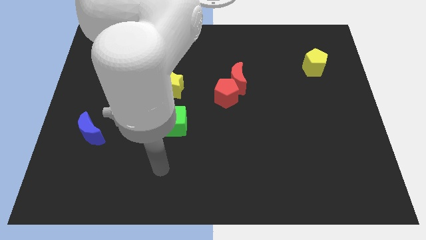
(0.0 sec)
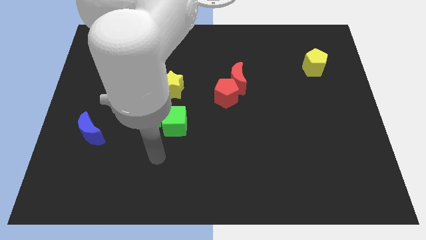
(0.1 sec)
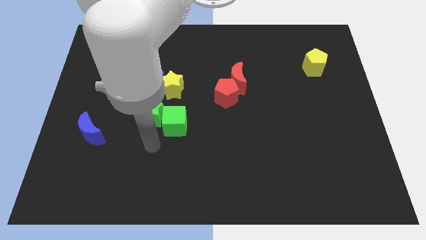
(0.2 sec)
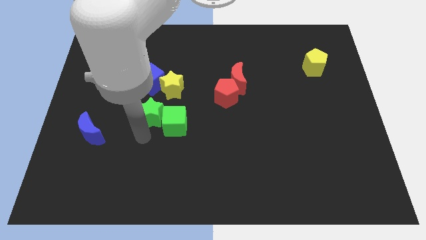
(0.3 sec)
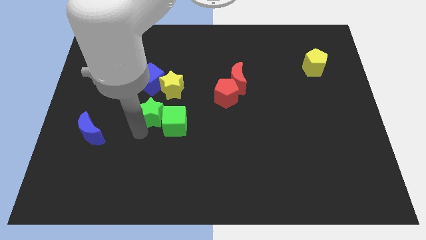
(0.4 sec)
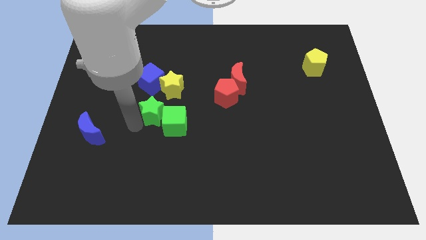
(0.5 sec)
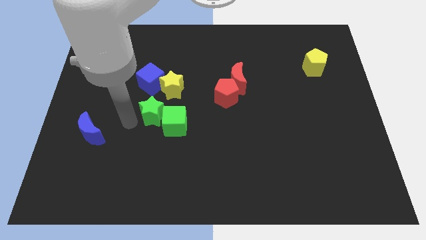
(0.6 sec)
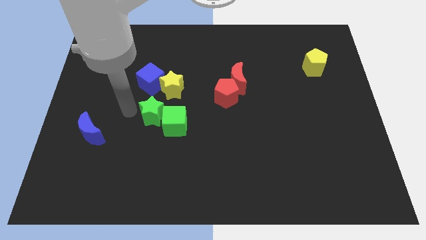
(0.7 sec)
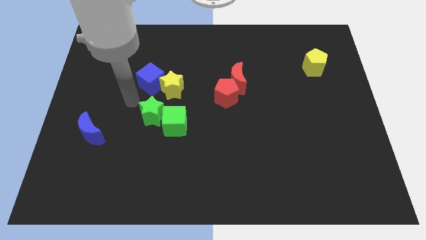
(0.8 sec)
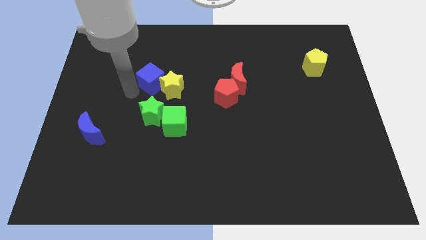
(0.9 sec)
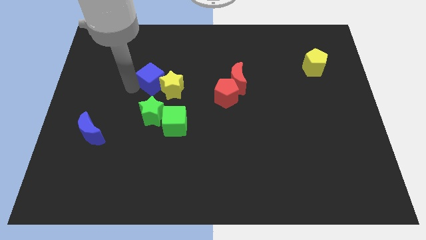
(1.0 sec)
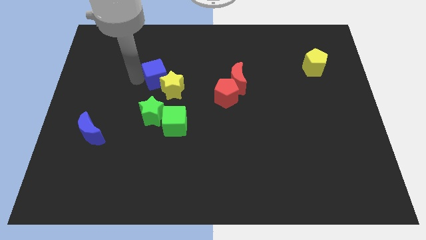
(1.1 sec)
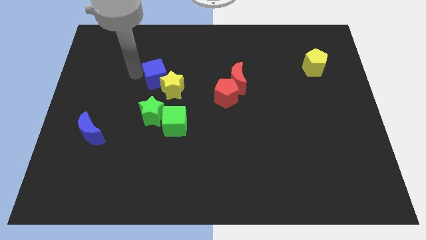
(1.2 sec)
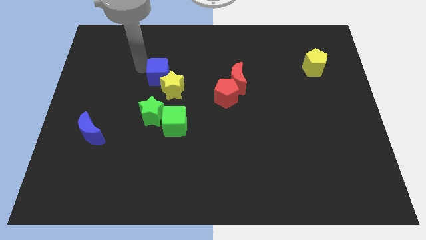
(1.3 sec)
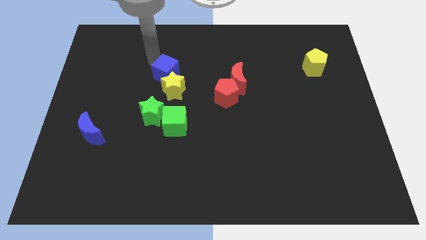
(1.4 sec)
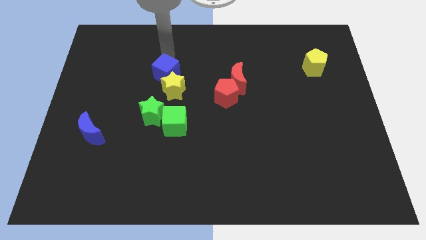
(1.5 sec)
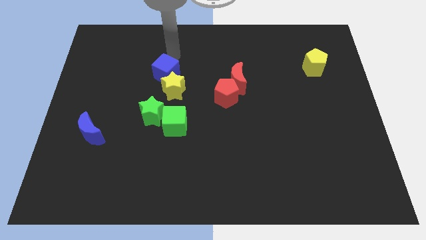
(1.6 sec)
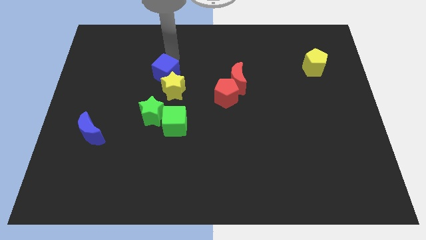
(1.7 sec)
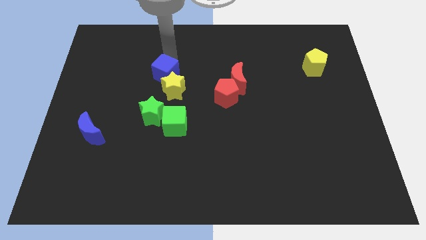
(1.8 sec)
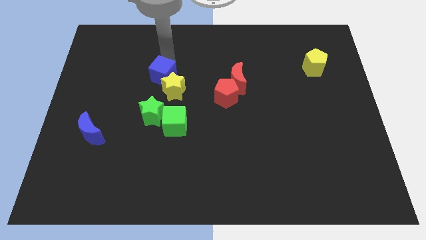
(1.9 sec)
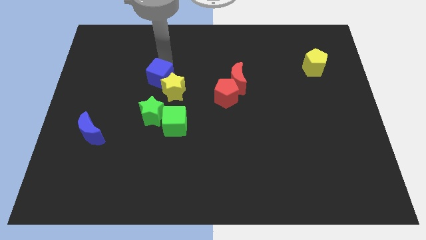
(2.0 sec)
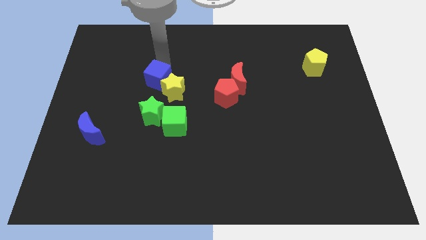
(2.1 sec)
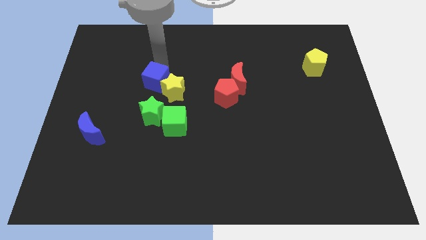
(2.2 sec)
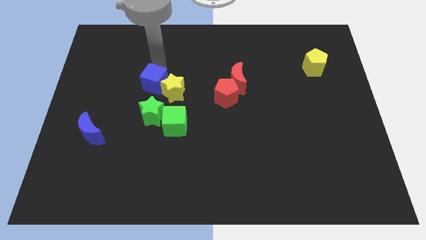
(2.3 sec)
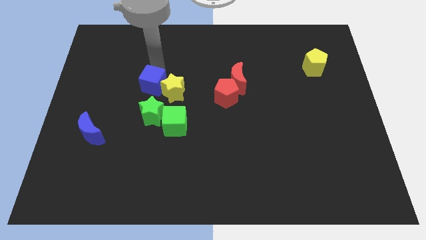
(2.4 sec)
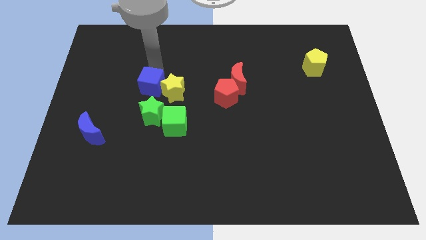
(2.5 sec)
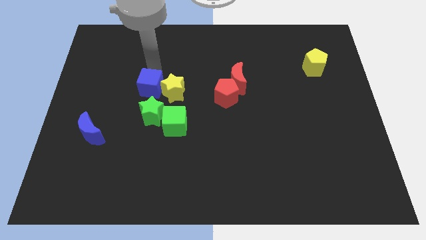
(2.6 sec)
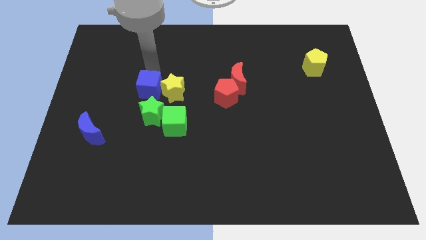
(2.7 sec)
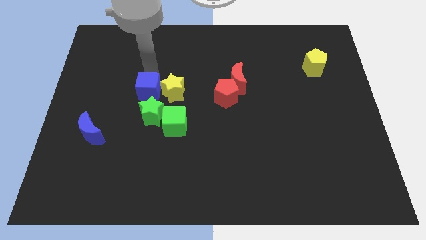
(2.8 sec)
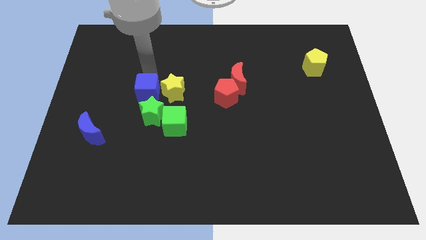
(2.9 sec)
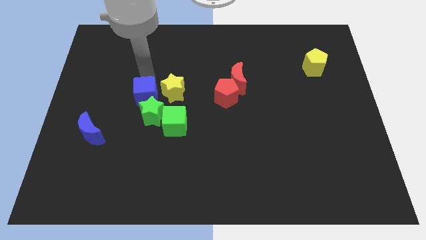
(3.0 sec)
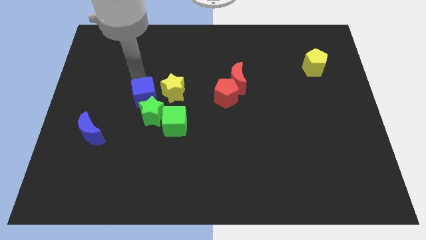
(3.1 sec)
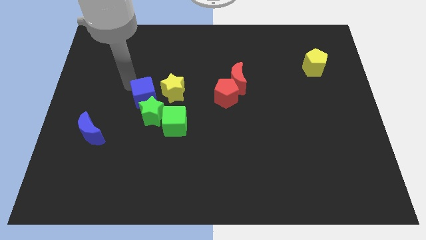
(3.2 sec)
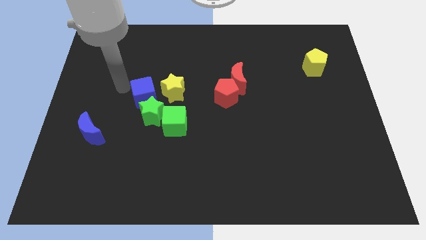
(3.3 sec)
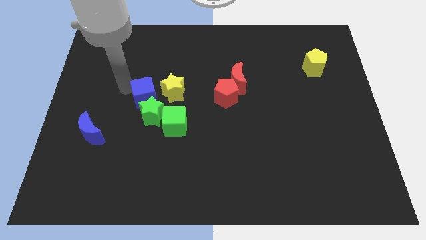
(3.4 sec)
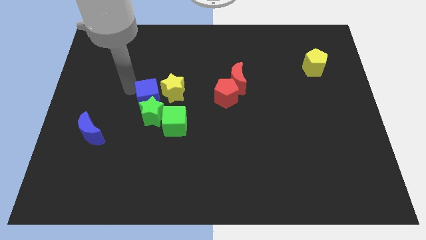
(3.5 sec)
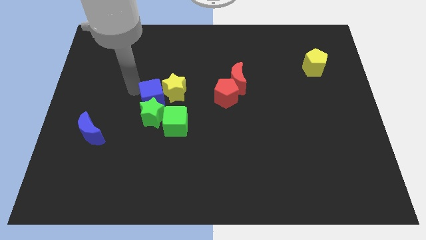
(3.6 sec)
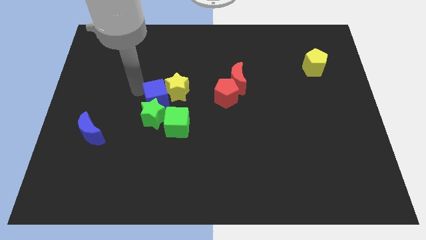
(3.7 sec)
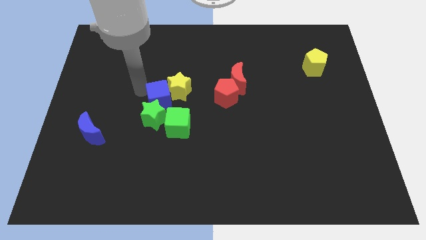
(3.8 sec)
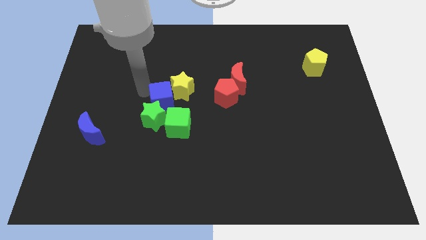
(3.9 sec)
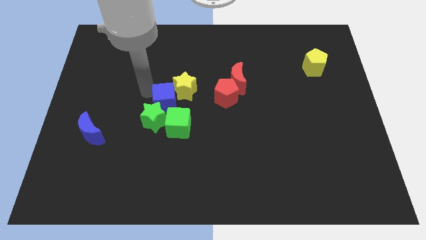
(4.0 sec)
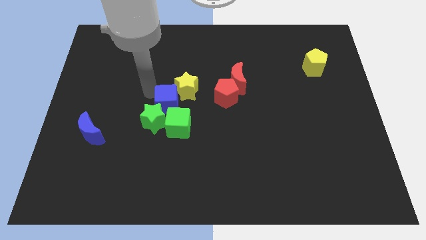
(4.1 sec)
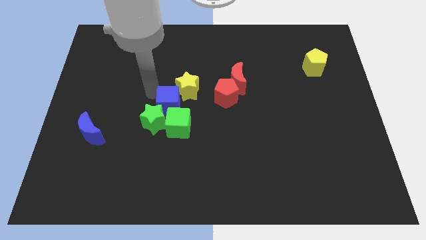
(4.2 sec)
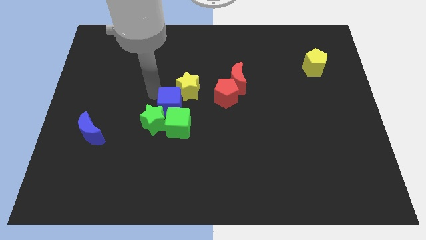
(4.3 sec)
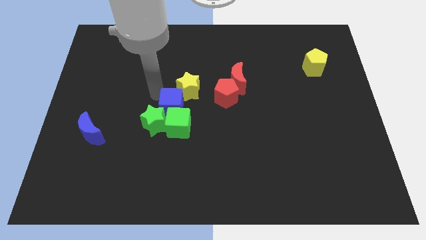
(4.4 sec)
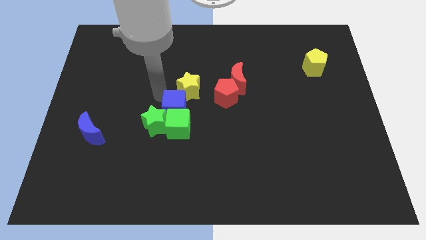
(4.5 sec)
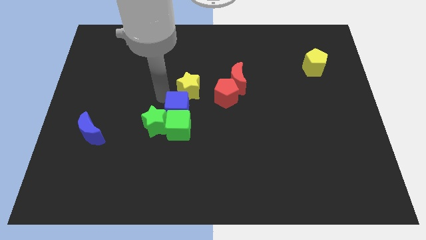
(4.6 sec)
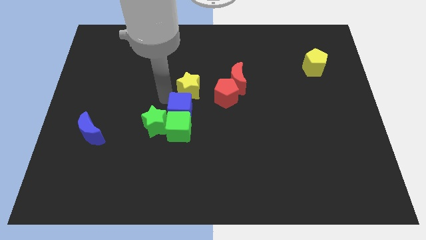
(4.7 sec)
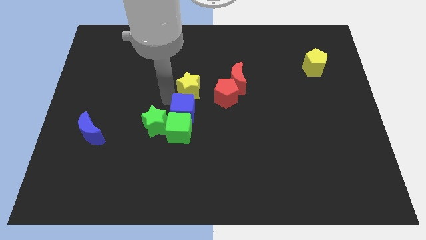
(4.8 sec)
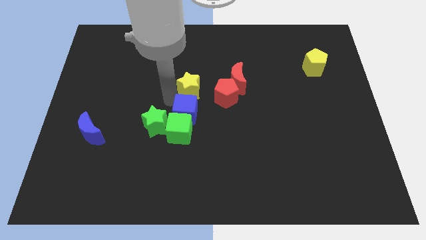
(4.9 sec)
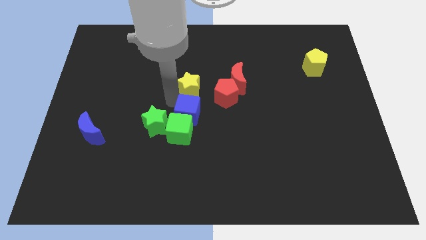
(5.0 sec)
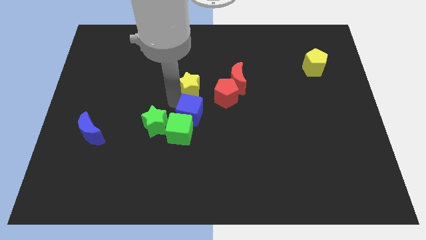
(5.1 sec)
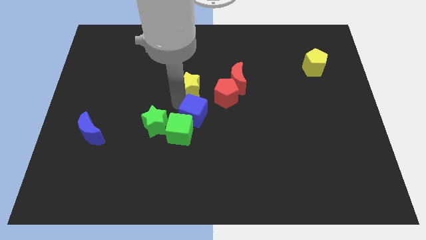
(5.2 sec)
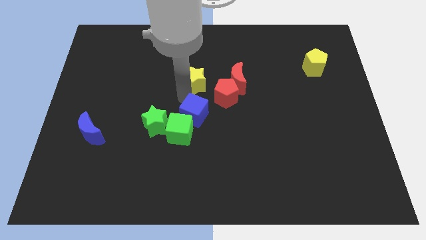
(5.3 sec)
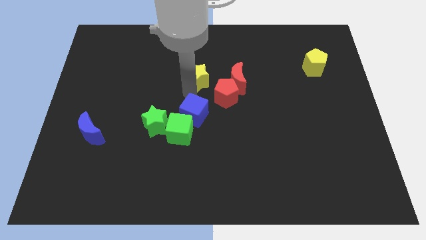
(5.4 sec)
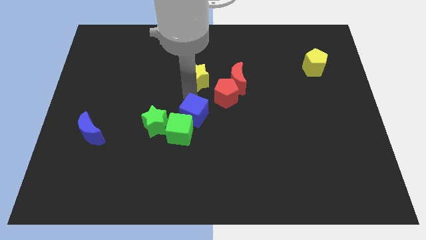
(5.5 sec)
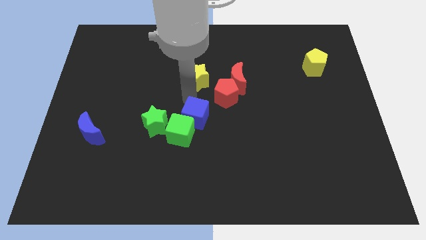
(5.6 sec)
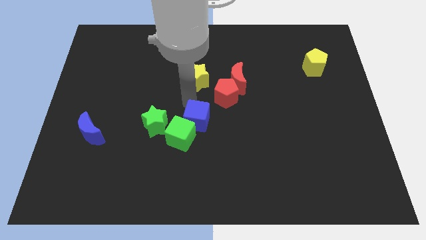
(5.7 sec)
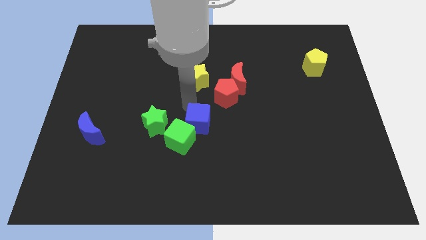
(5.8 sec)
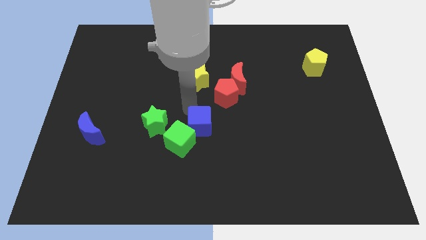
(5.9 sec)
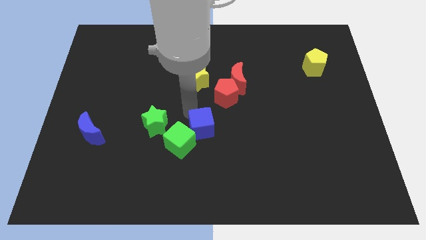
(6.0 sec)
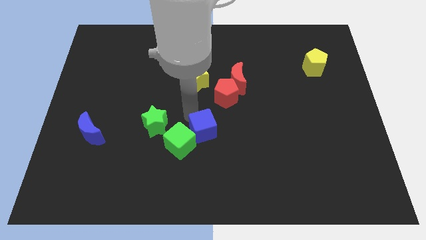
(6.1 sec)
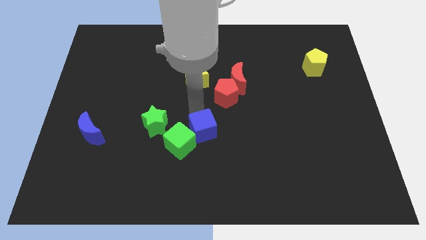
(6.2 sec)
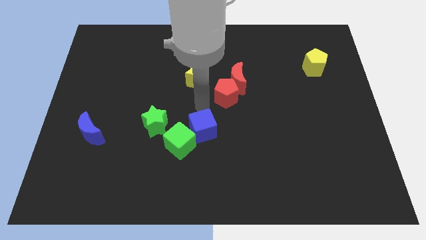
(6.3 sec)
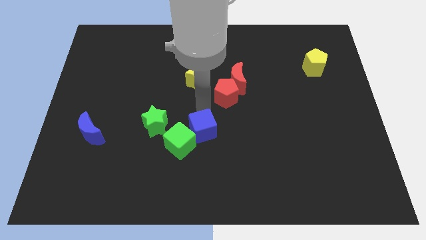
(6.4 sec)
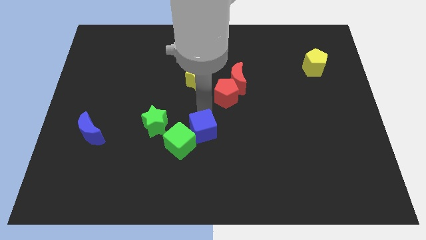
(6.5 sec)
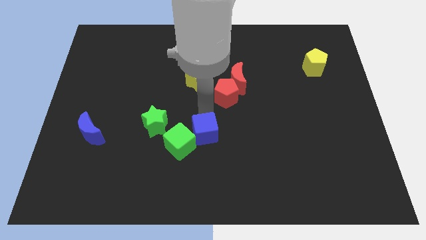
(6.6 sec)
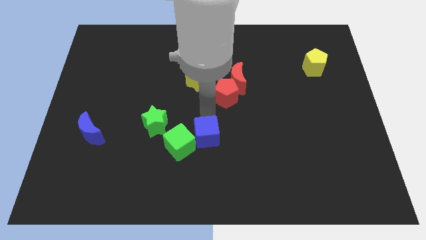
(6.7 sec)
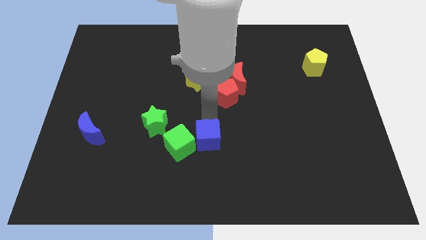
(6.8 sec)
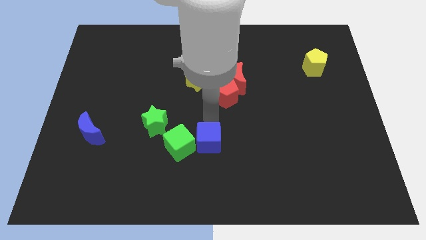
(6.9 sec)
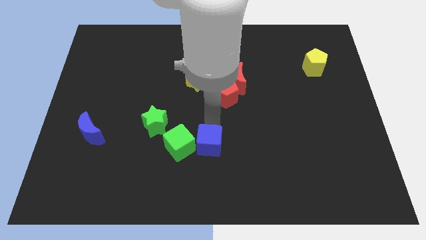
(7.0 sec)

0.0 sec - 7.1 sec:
move the blue cube diagonally down and to the right of the green cube

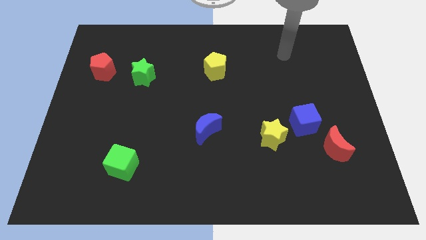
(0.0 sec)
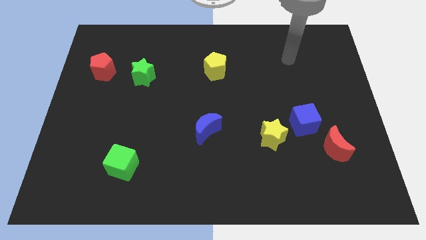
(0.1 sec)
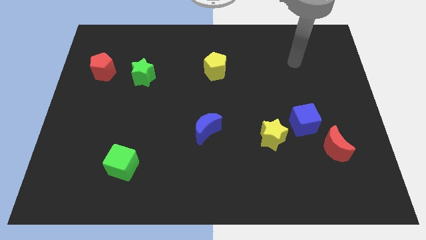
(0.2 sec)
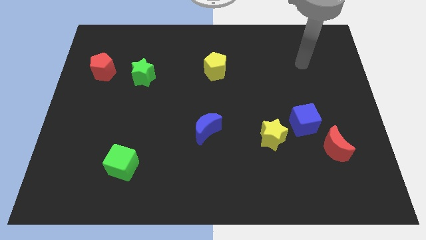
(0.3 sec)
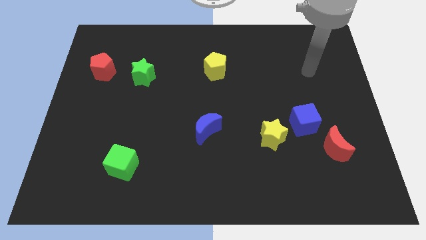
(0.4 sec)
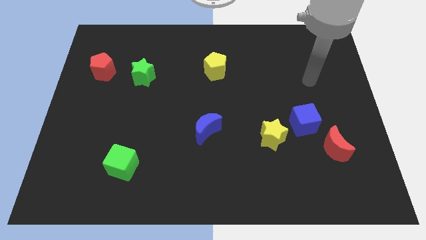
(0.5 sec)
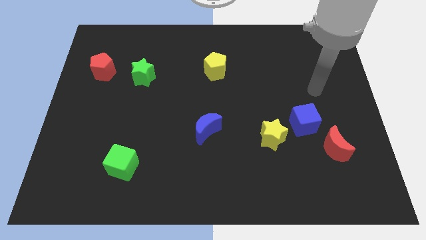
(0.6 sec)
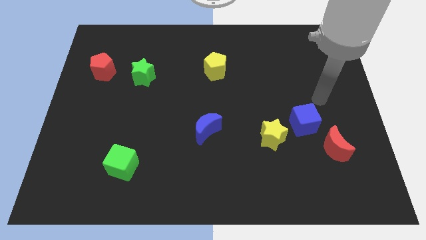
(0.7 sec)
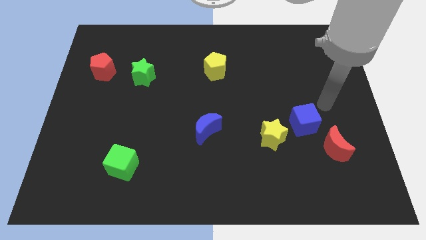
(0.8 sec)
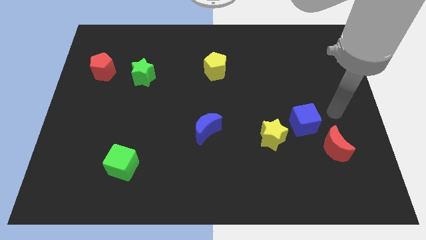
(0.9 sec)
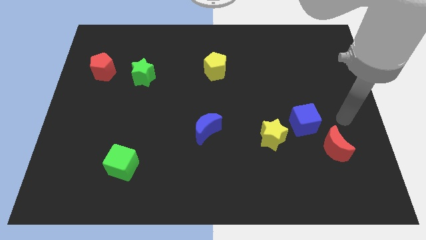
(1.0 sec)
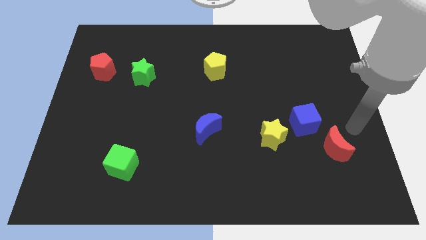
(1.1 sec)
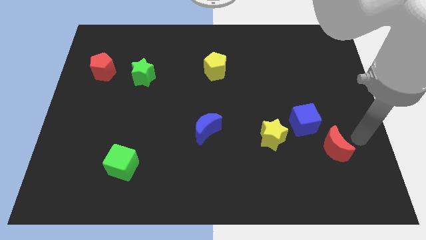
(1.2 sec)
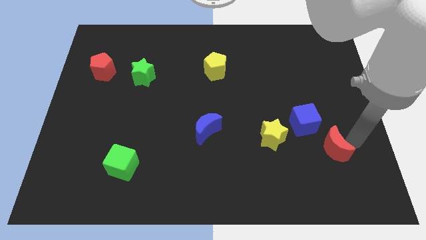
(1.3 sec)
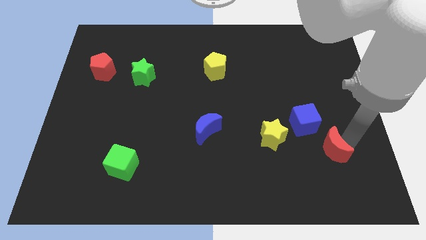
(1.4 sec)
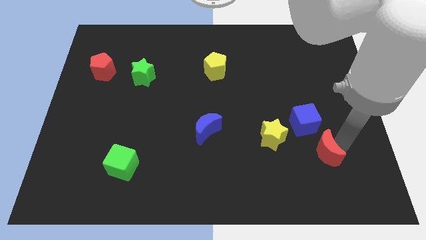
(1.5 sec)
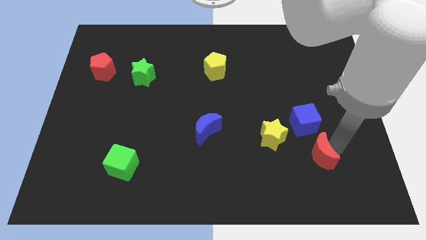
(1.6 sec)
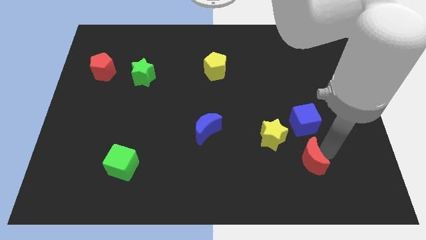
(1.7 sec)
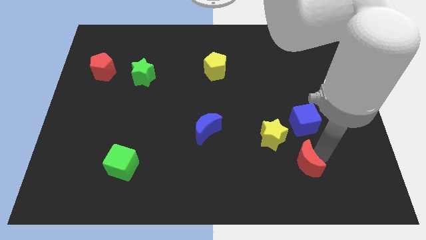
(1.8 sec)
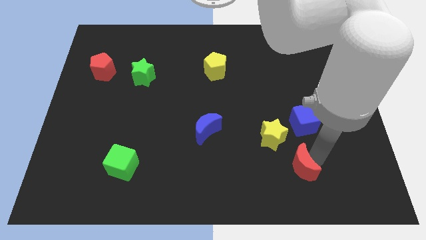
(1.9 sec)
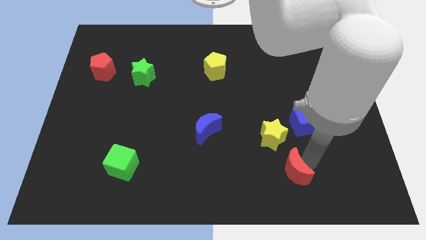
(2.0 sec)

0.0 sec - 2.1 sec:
push the red moon to the bottom side of the yellow star
